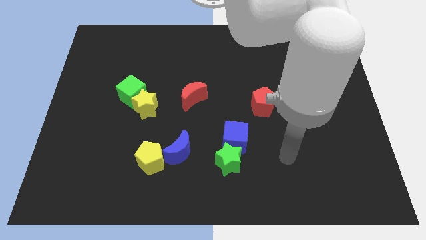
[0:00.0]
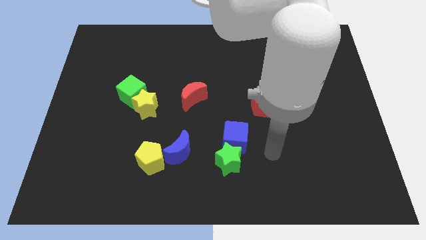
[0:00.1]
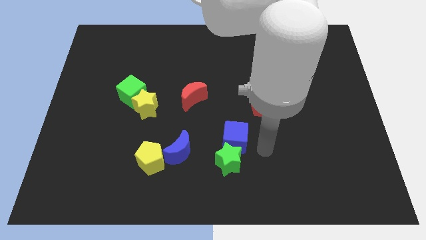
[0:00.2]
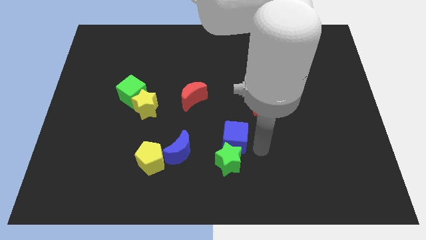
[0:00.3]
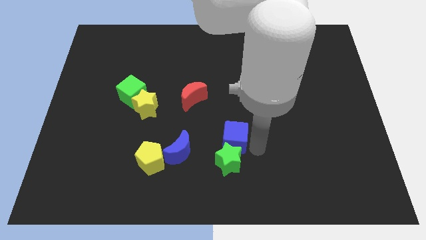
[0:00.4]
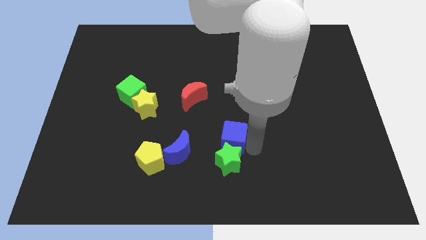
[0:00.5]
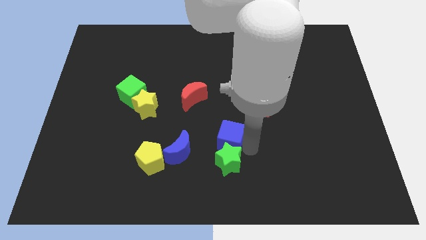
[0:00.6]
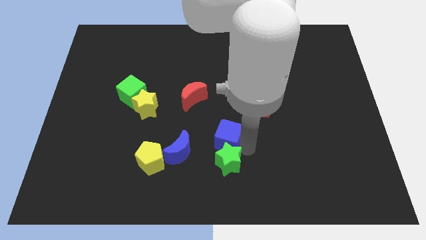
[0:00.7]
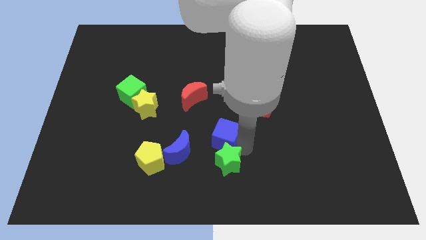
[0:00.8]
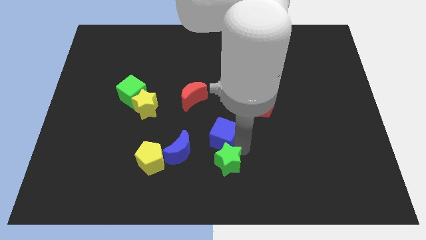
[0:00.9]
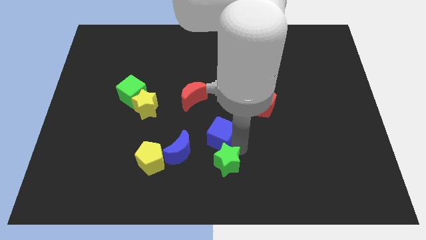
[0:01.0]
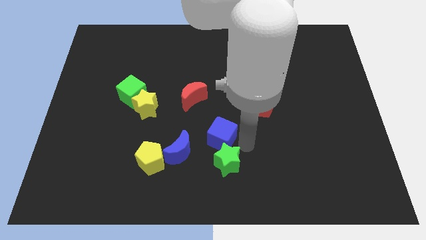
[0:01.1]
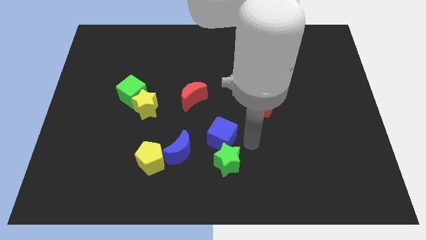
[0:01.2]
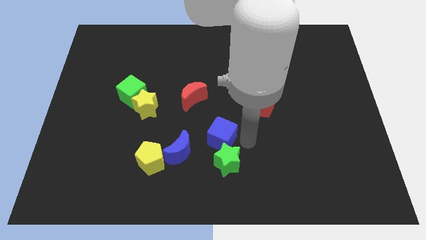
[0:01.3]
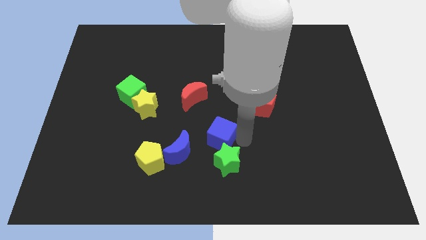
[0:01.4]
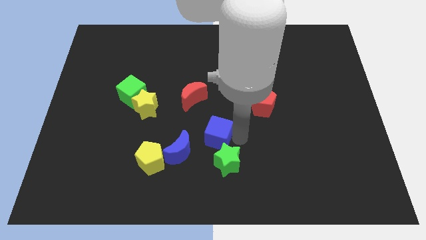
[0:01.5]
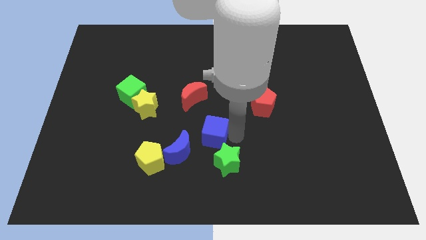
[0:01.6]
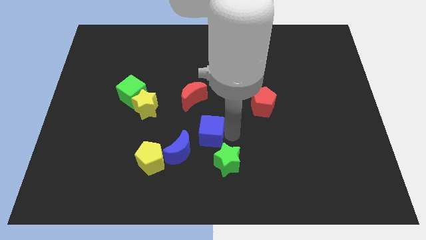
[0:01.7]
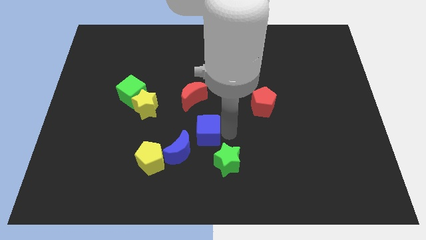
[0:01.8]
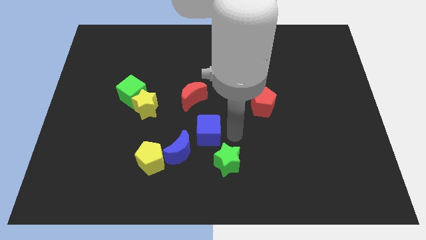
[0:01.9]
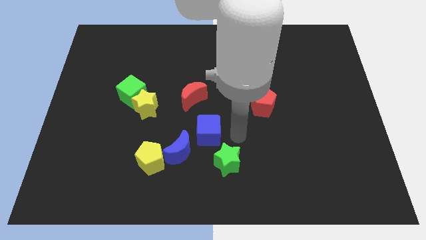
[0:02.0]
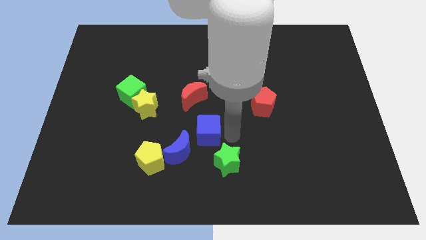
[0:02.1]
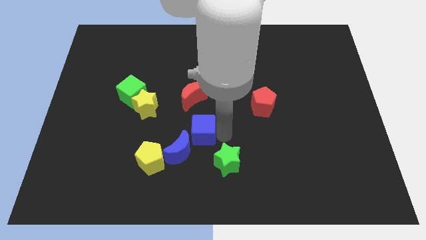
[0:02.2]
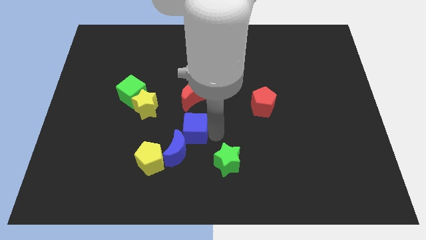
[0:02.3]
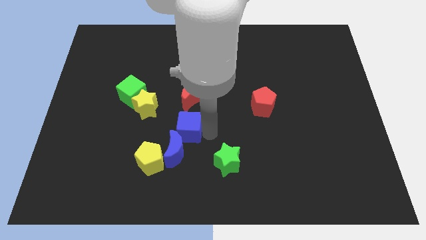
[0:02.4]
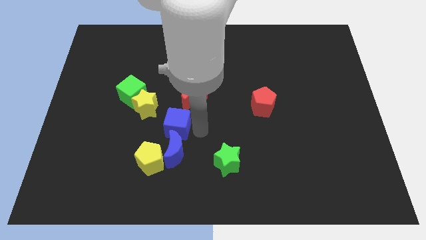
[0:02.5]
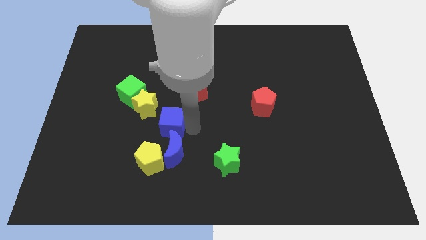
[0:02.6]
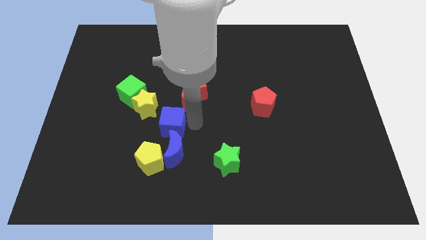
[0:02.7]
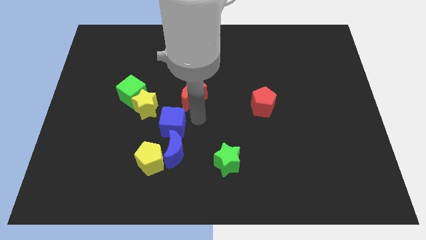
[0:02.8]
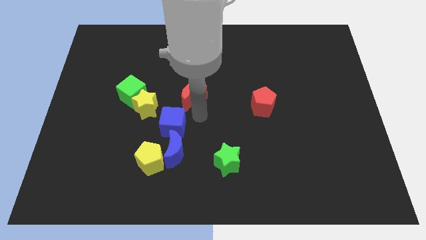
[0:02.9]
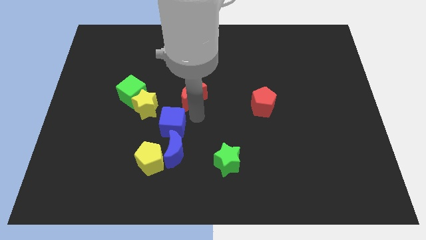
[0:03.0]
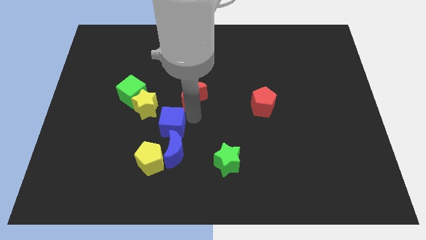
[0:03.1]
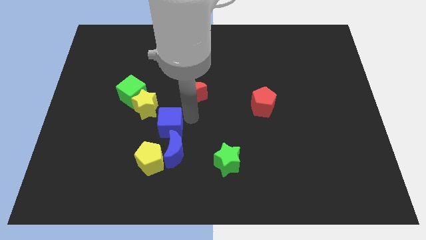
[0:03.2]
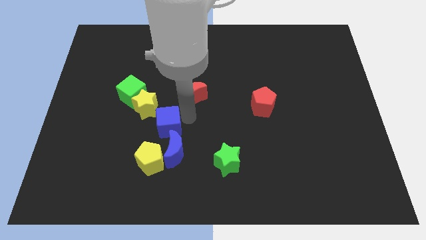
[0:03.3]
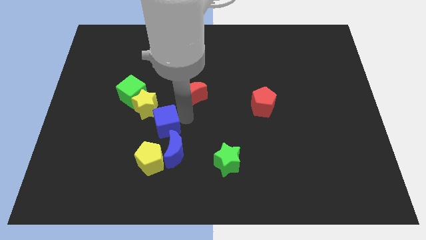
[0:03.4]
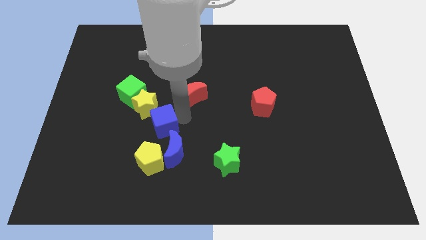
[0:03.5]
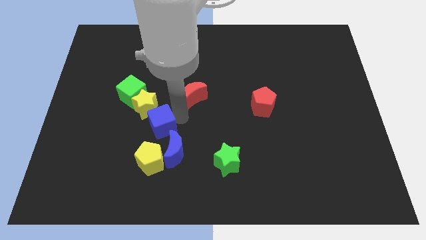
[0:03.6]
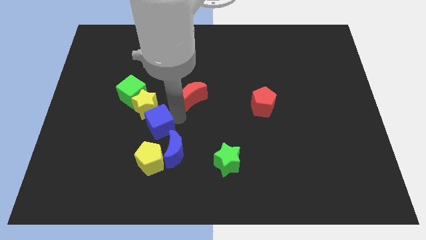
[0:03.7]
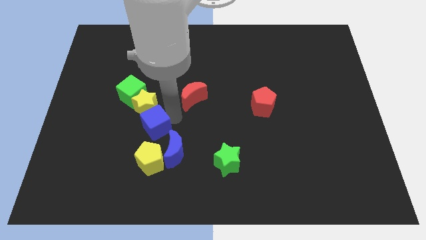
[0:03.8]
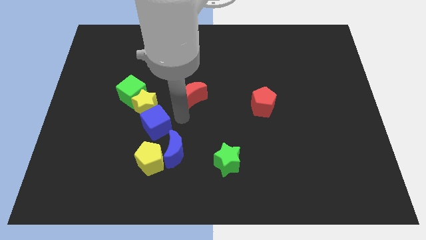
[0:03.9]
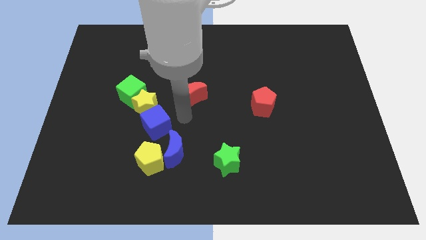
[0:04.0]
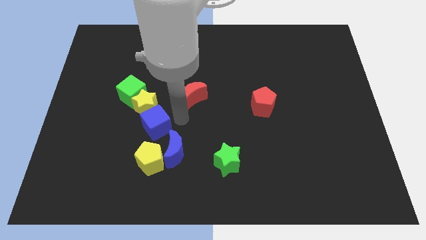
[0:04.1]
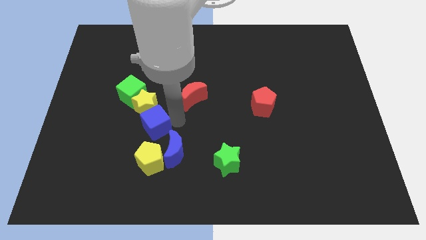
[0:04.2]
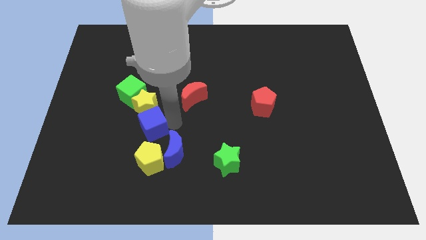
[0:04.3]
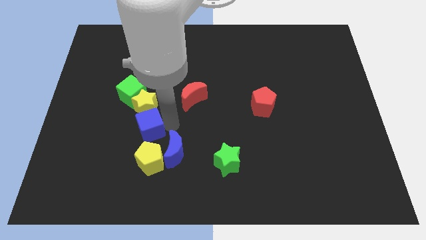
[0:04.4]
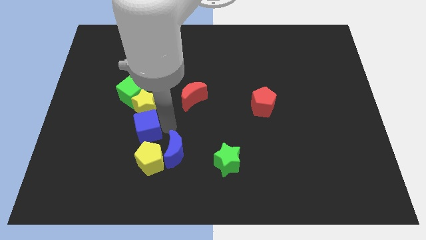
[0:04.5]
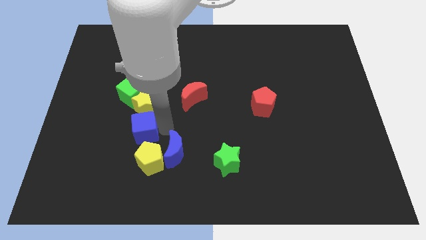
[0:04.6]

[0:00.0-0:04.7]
slide the blue cube to the left

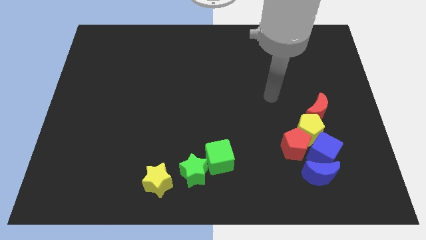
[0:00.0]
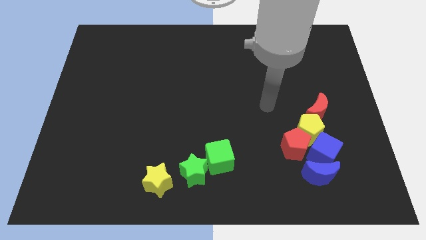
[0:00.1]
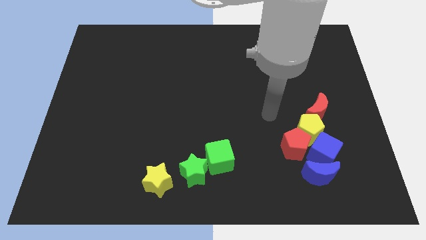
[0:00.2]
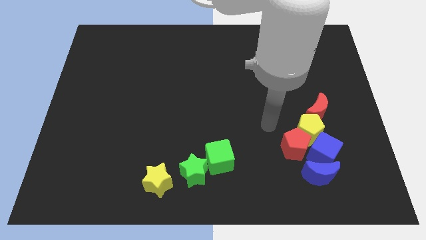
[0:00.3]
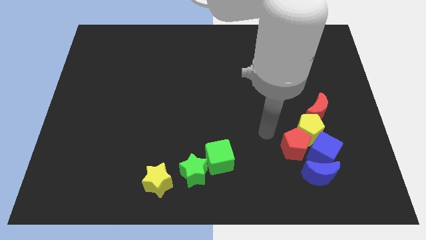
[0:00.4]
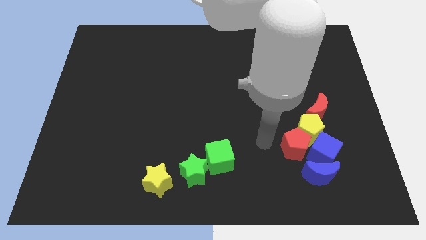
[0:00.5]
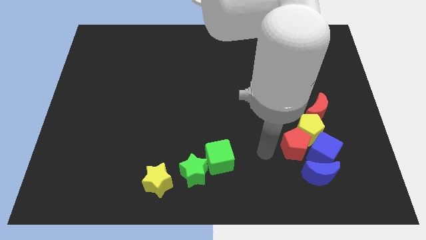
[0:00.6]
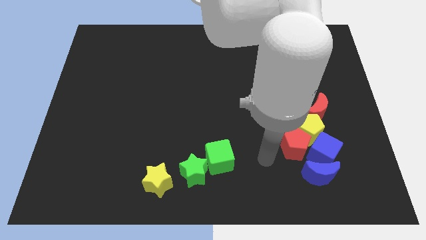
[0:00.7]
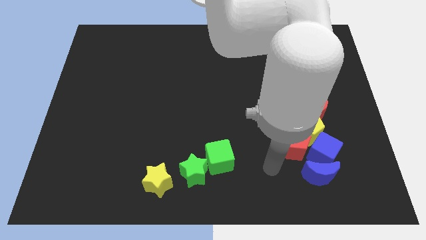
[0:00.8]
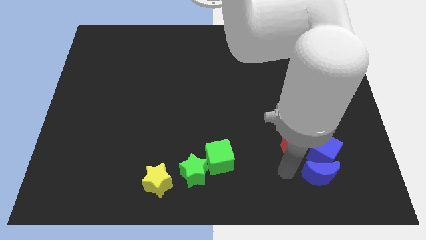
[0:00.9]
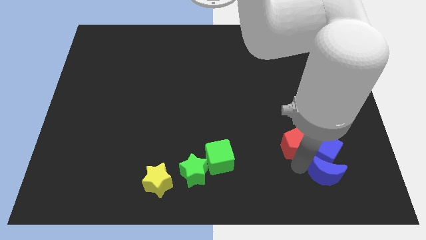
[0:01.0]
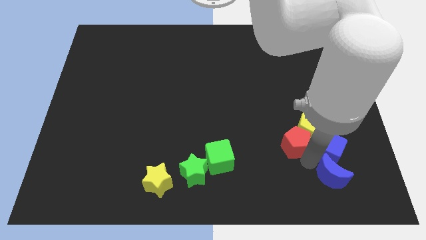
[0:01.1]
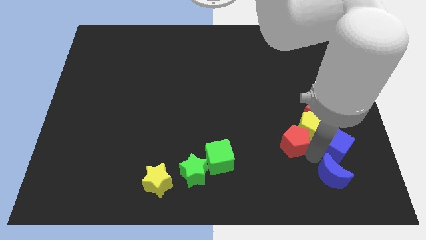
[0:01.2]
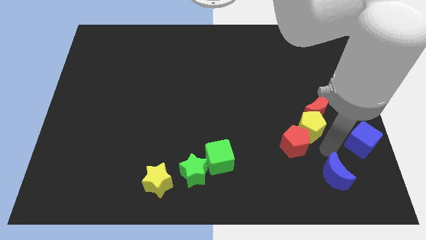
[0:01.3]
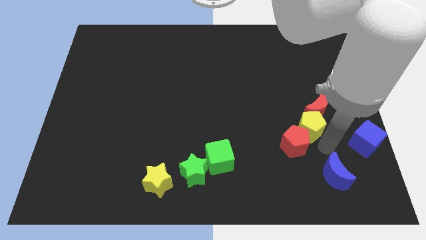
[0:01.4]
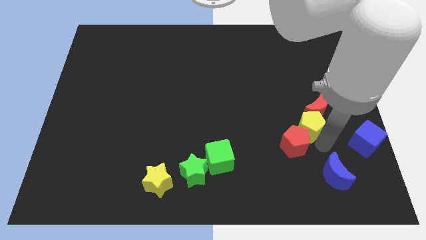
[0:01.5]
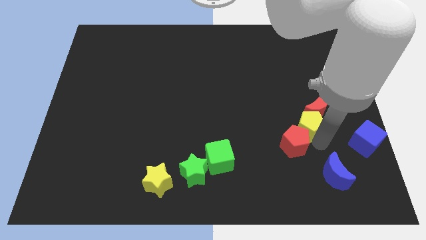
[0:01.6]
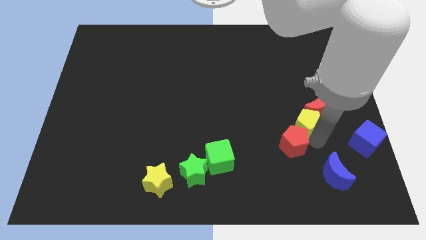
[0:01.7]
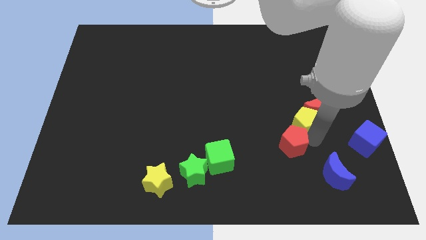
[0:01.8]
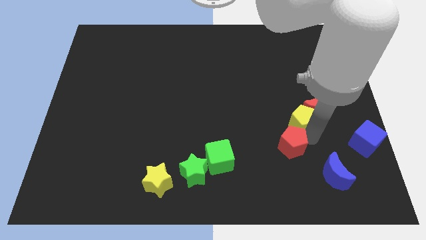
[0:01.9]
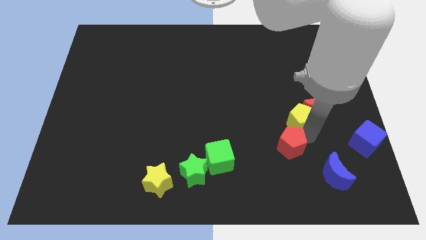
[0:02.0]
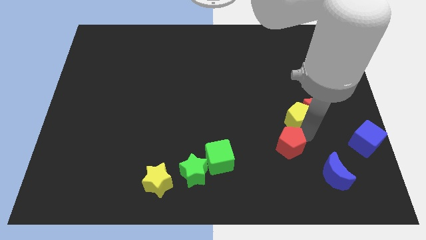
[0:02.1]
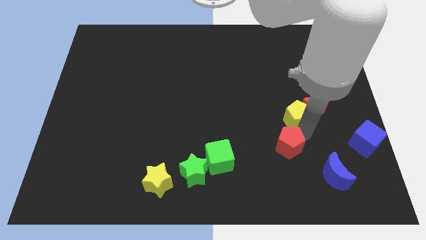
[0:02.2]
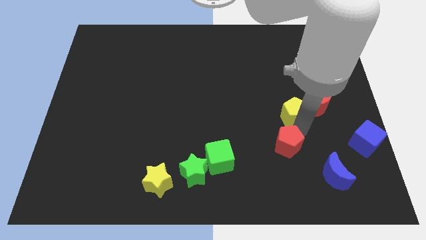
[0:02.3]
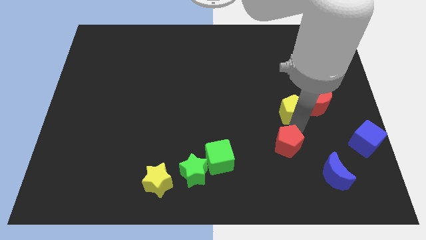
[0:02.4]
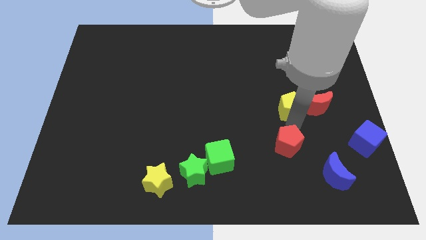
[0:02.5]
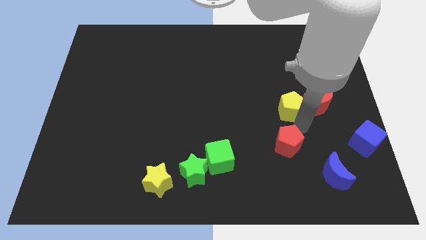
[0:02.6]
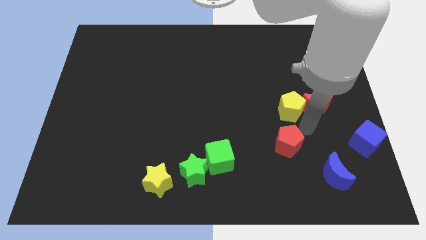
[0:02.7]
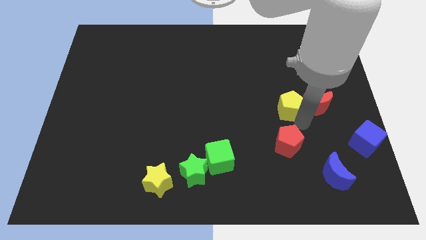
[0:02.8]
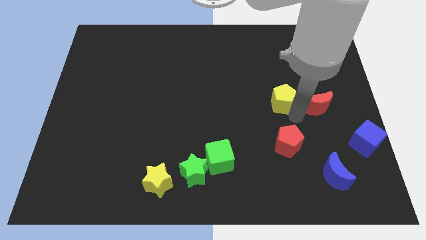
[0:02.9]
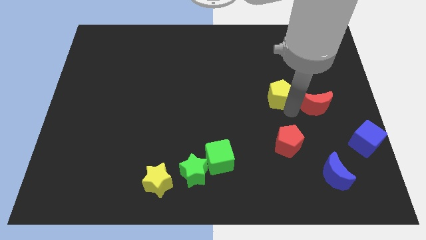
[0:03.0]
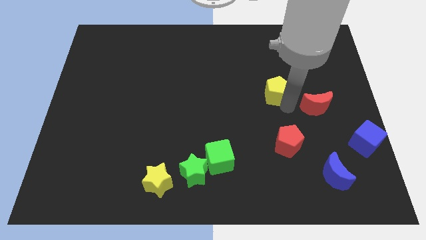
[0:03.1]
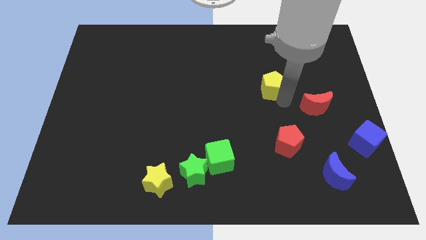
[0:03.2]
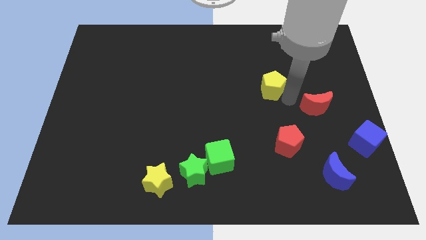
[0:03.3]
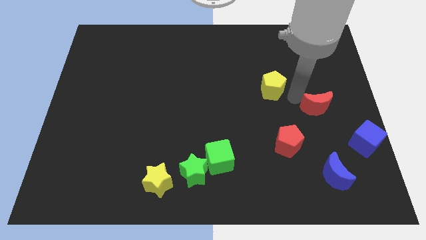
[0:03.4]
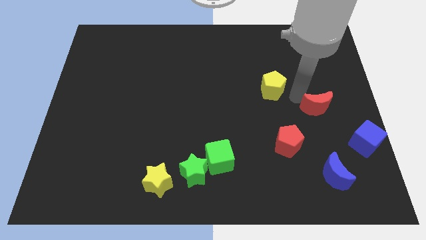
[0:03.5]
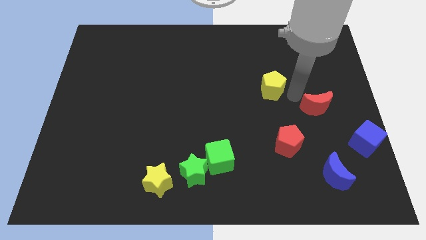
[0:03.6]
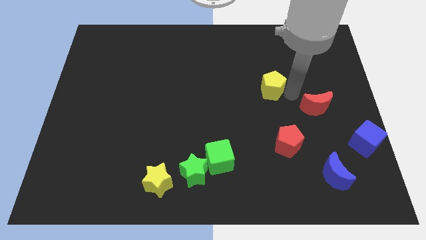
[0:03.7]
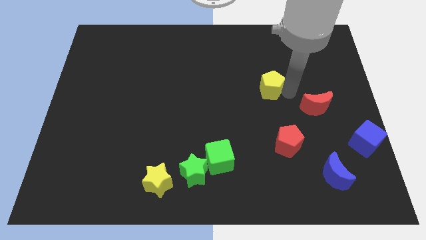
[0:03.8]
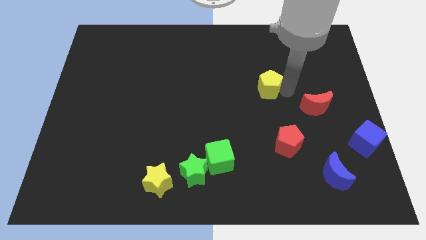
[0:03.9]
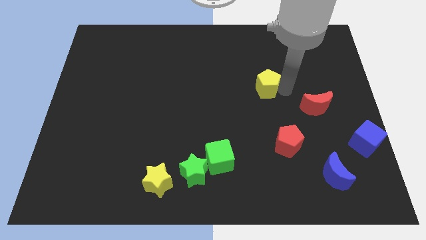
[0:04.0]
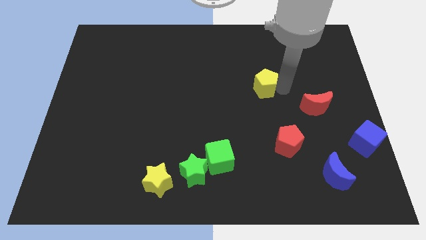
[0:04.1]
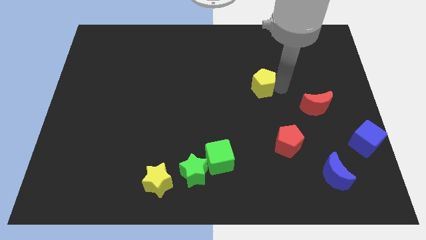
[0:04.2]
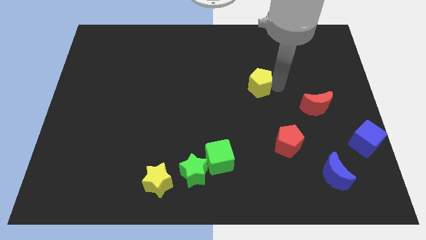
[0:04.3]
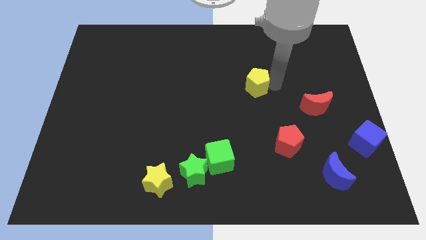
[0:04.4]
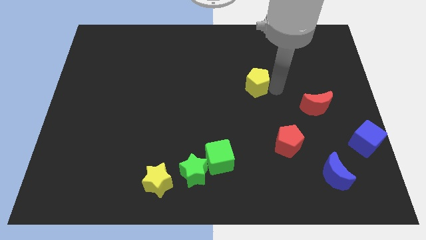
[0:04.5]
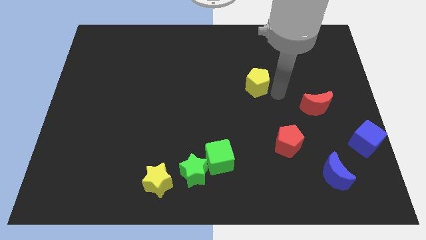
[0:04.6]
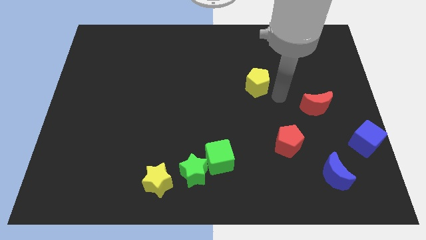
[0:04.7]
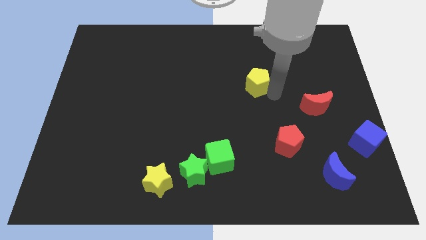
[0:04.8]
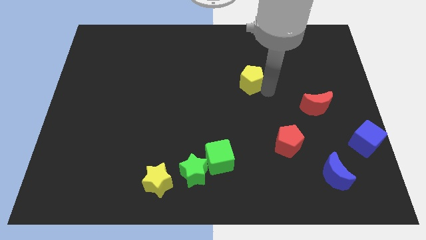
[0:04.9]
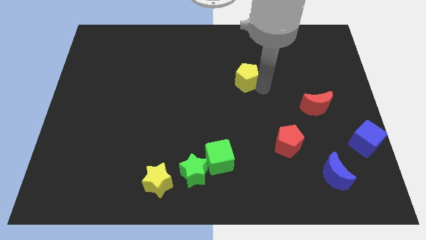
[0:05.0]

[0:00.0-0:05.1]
push the yellow pentagon up and to the left
